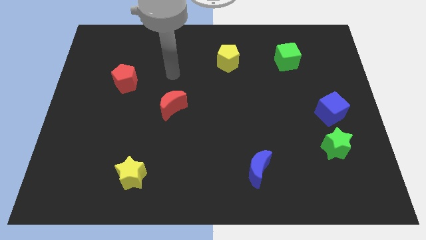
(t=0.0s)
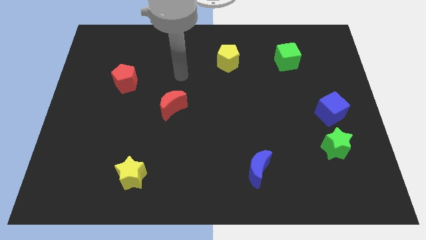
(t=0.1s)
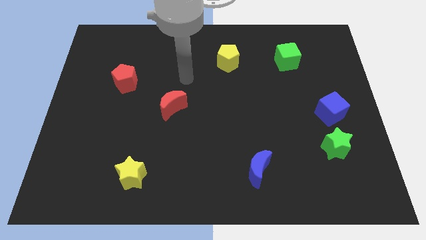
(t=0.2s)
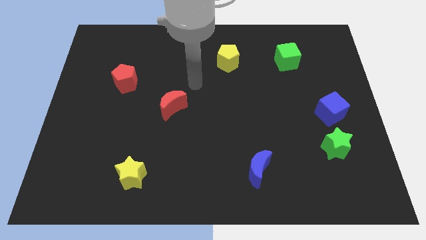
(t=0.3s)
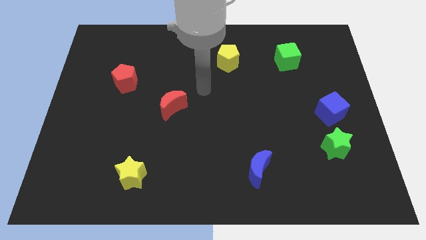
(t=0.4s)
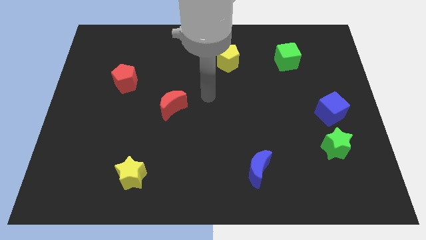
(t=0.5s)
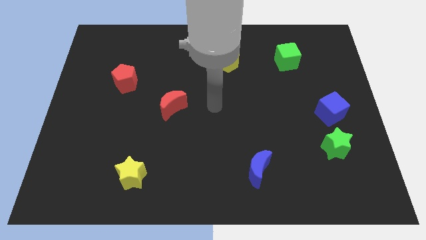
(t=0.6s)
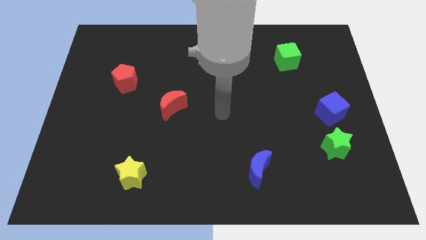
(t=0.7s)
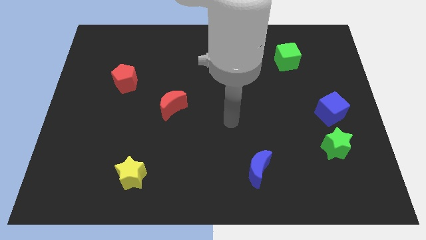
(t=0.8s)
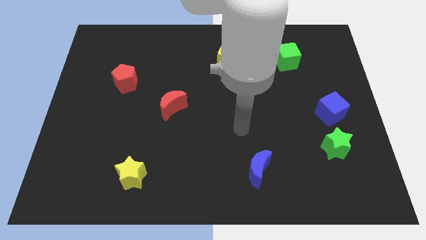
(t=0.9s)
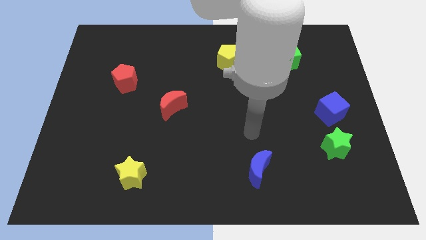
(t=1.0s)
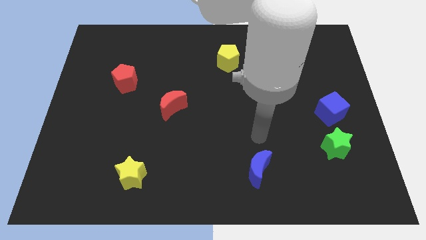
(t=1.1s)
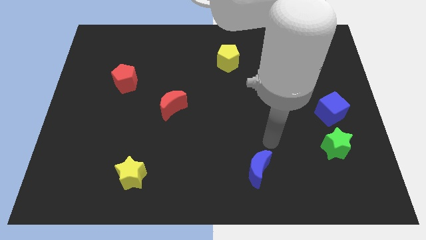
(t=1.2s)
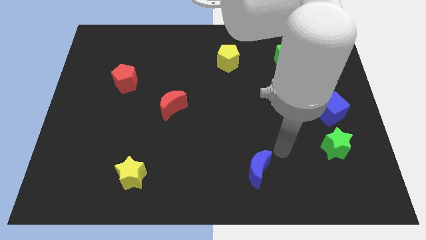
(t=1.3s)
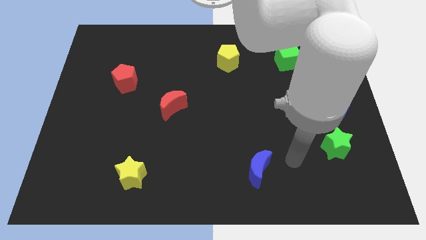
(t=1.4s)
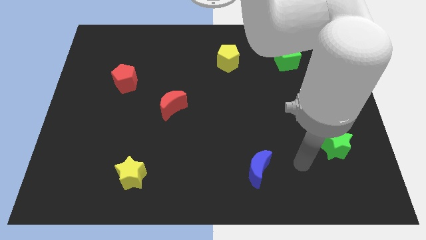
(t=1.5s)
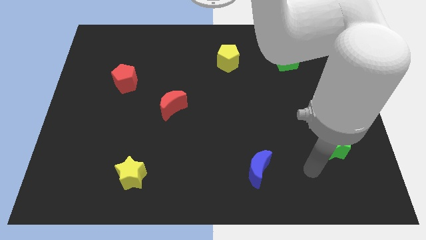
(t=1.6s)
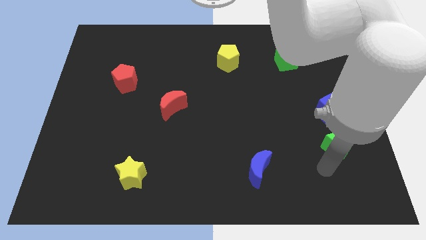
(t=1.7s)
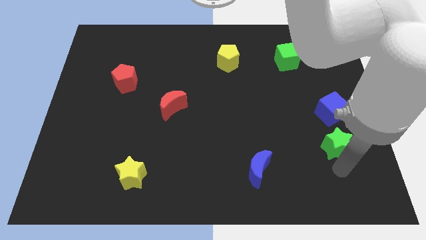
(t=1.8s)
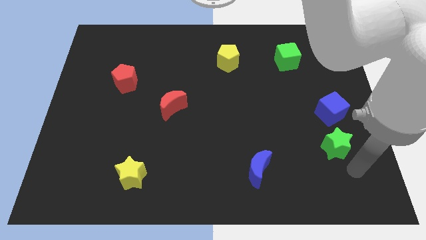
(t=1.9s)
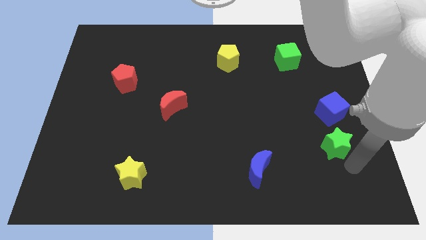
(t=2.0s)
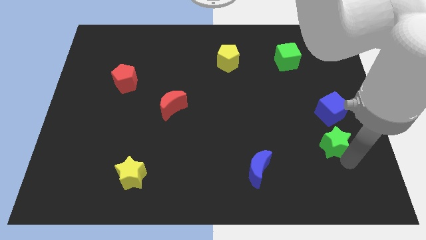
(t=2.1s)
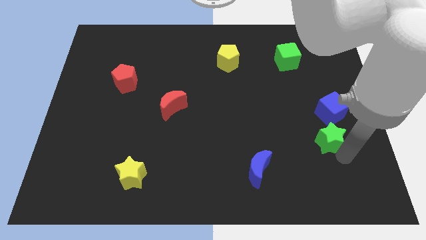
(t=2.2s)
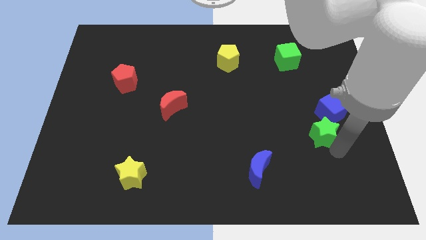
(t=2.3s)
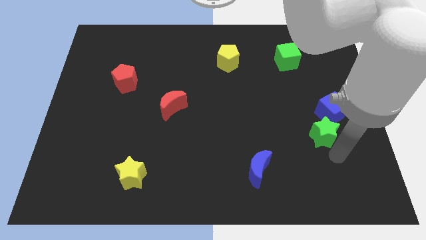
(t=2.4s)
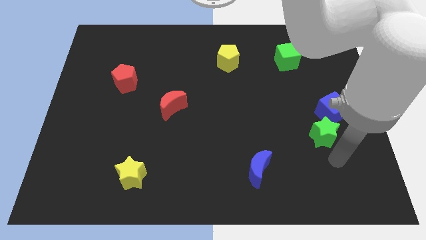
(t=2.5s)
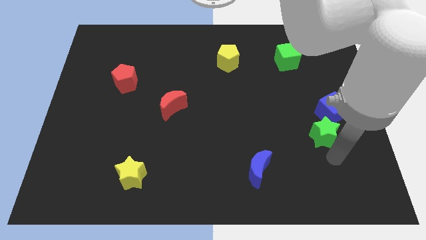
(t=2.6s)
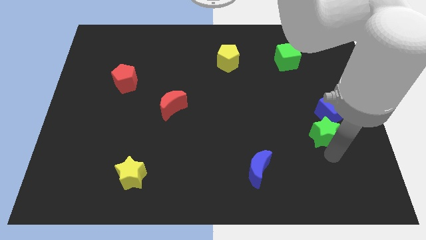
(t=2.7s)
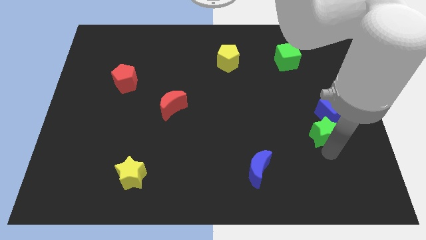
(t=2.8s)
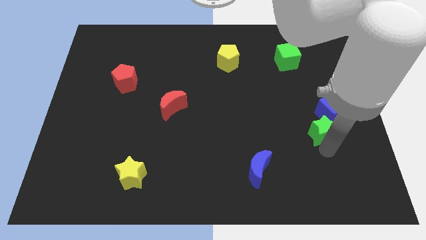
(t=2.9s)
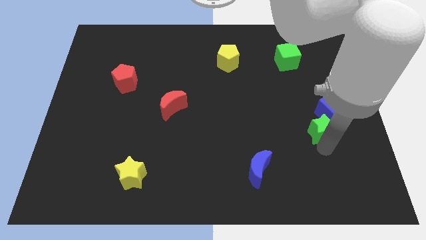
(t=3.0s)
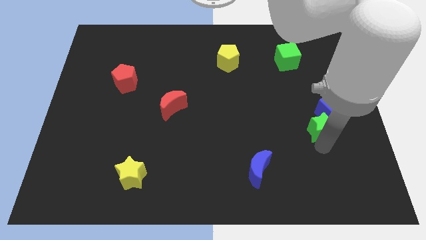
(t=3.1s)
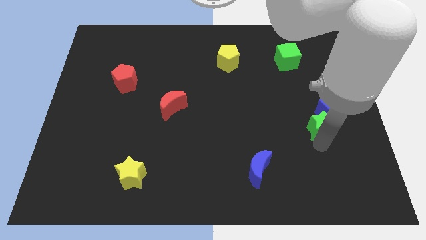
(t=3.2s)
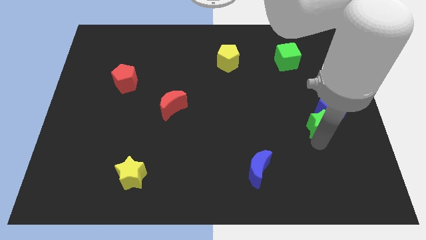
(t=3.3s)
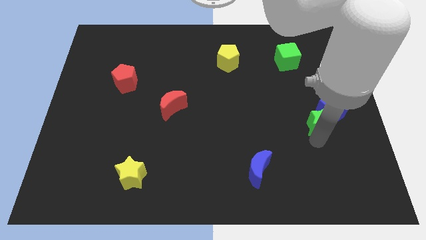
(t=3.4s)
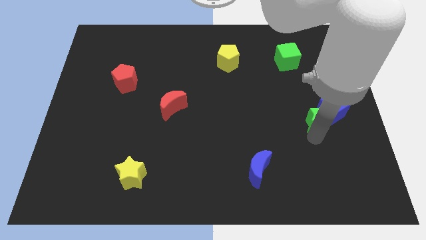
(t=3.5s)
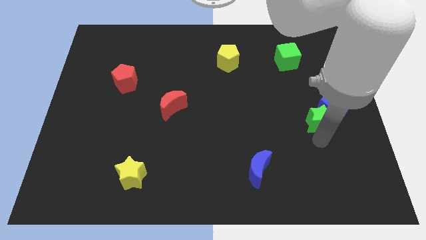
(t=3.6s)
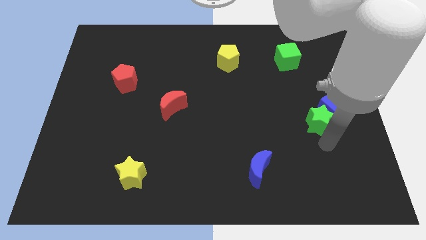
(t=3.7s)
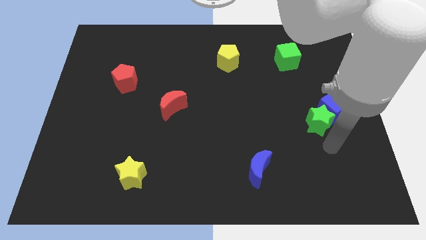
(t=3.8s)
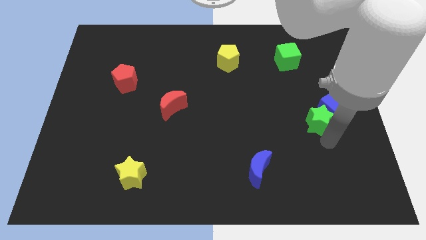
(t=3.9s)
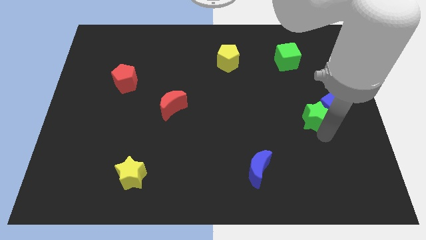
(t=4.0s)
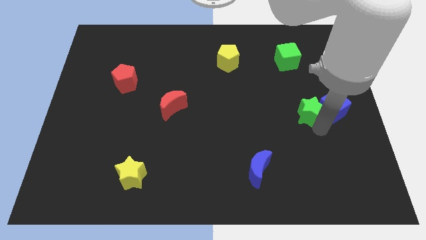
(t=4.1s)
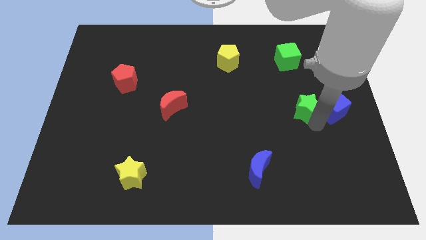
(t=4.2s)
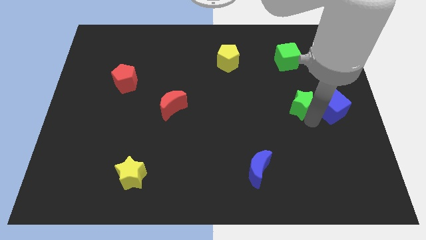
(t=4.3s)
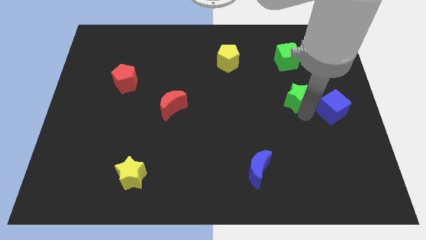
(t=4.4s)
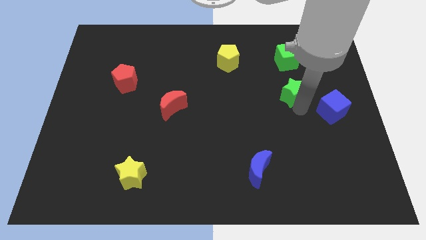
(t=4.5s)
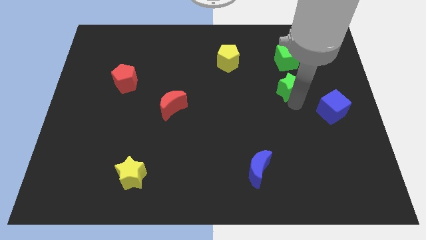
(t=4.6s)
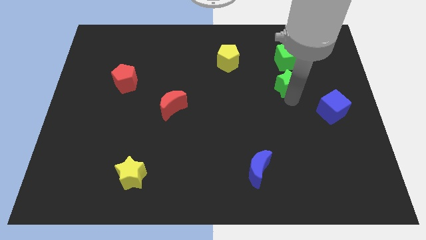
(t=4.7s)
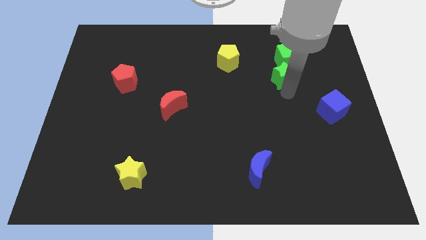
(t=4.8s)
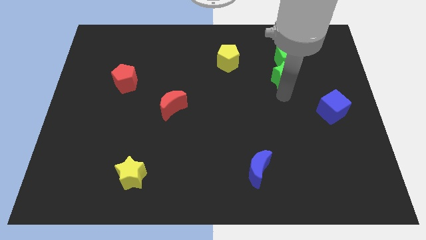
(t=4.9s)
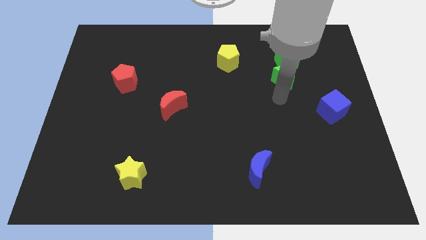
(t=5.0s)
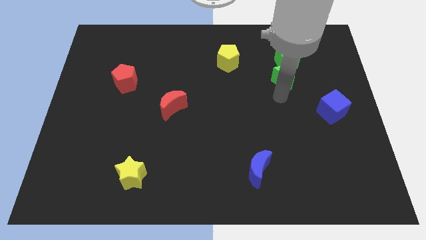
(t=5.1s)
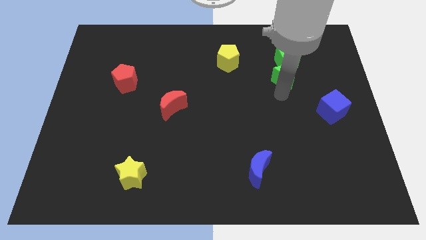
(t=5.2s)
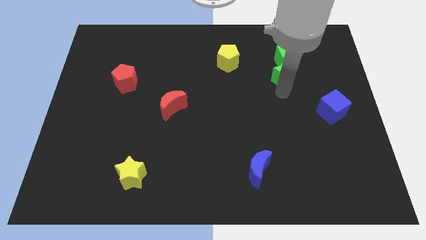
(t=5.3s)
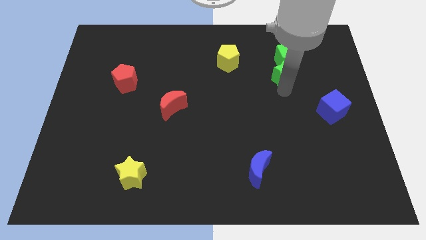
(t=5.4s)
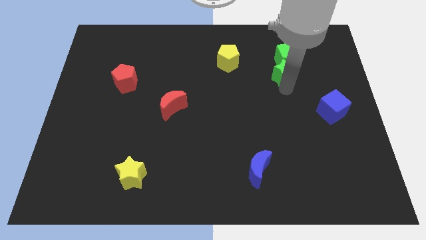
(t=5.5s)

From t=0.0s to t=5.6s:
move the green star towards the green cube

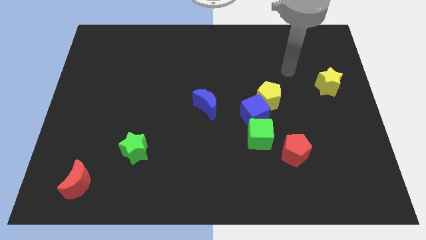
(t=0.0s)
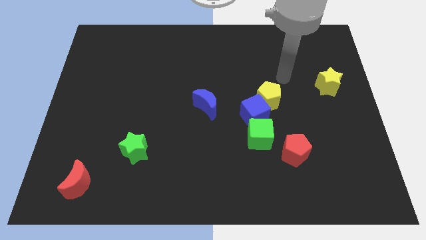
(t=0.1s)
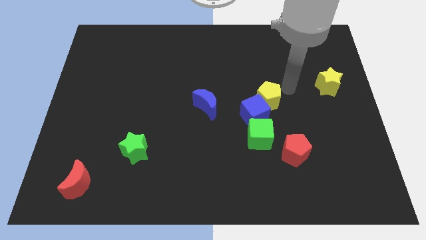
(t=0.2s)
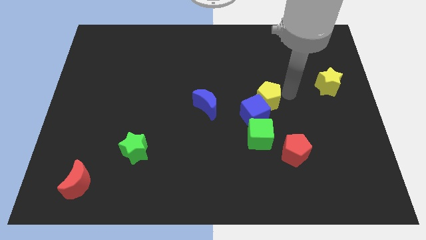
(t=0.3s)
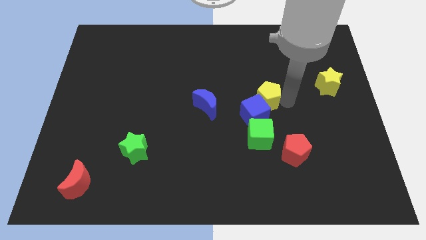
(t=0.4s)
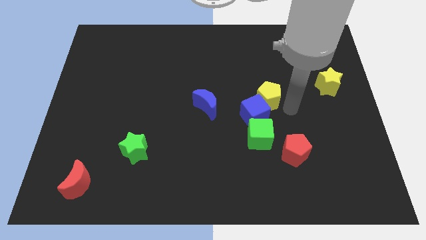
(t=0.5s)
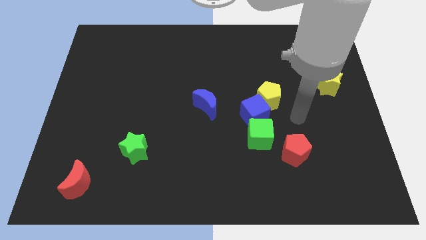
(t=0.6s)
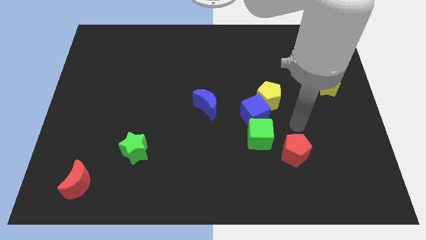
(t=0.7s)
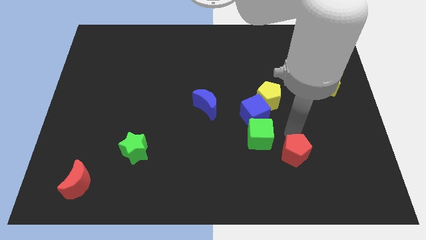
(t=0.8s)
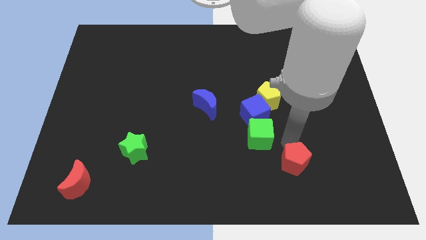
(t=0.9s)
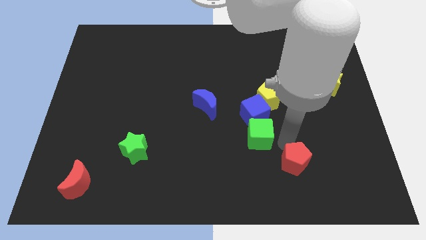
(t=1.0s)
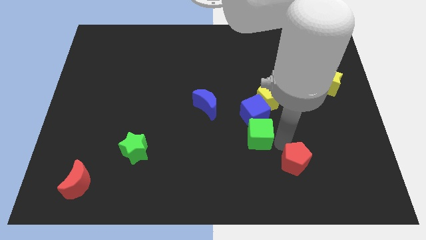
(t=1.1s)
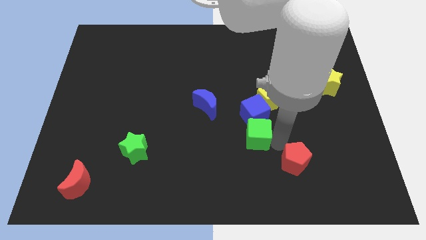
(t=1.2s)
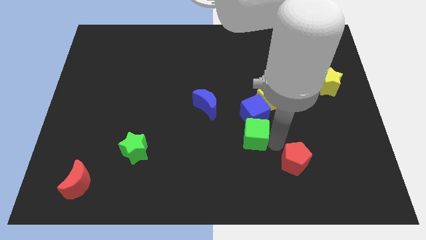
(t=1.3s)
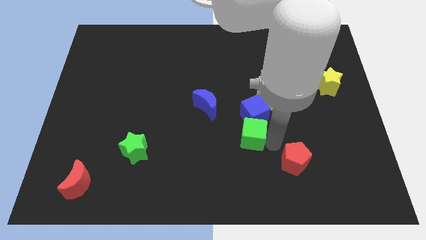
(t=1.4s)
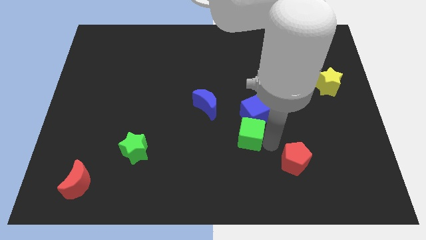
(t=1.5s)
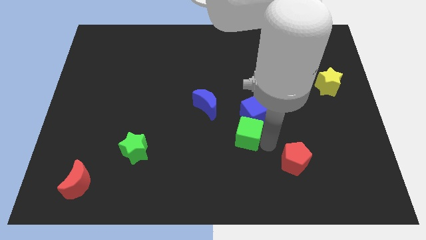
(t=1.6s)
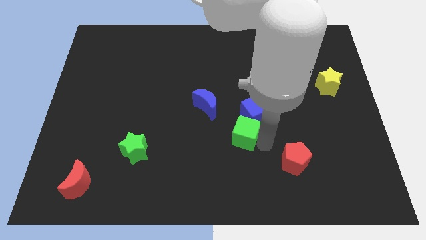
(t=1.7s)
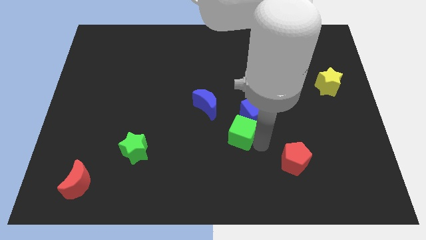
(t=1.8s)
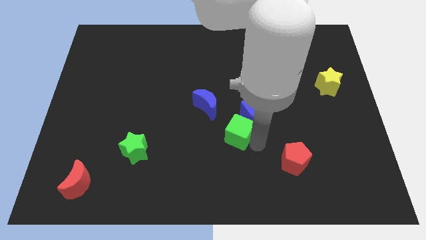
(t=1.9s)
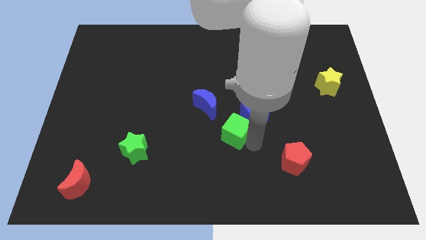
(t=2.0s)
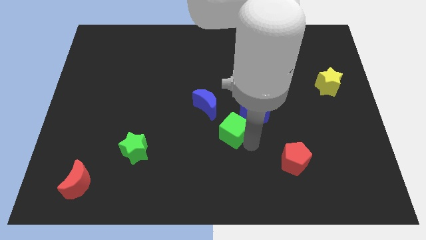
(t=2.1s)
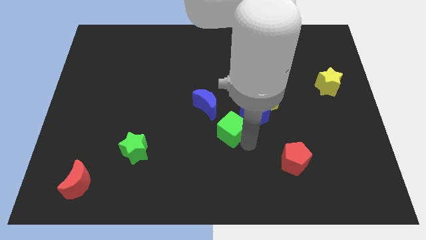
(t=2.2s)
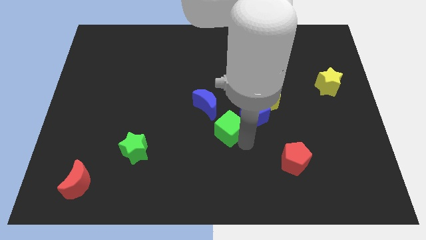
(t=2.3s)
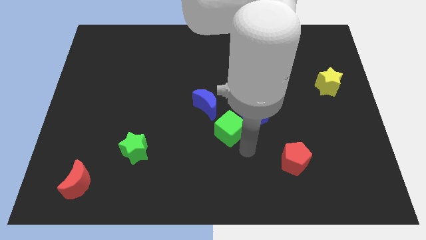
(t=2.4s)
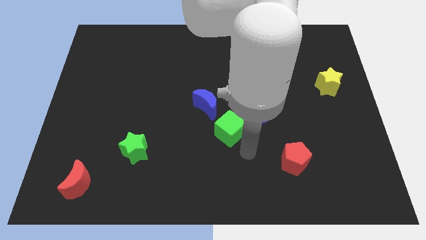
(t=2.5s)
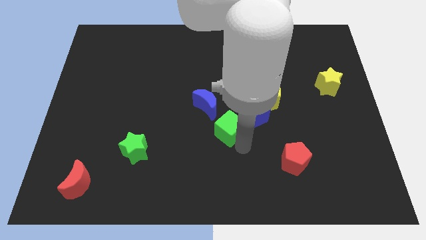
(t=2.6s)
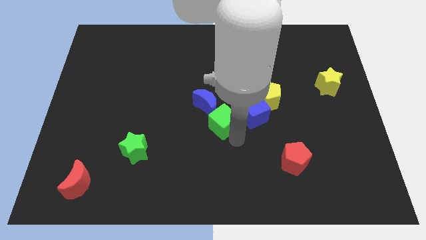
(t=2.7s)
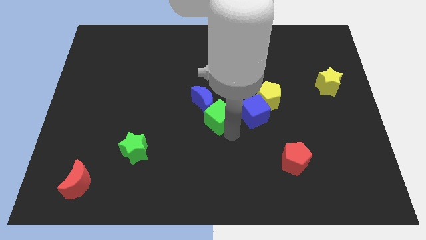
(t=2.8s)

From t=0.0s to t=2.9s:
push the green cube towards the blue moon
